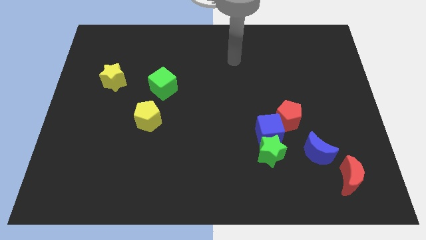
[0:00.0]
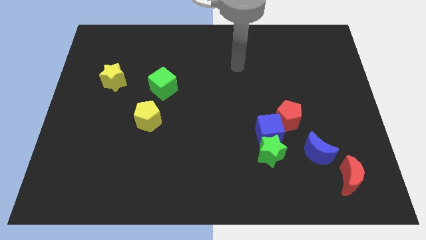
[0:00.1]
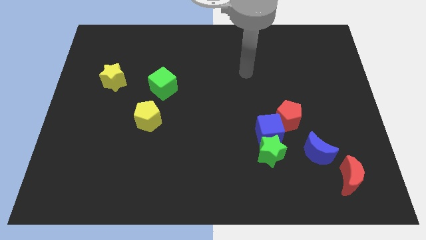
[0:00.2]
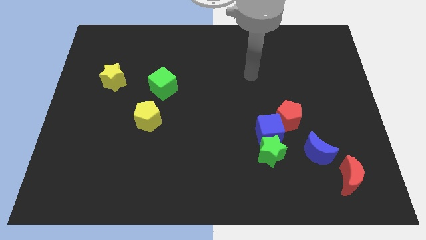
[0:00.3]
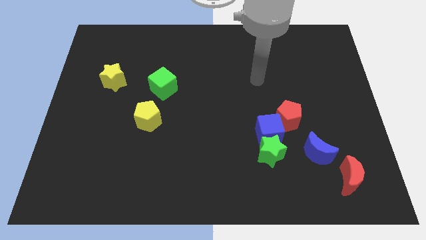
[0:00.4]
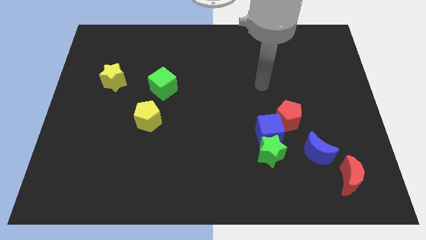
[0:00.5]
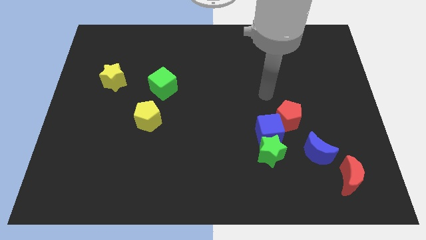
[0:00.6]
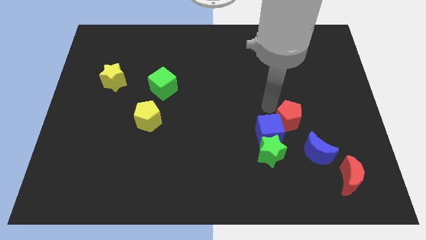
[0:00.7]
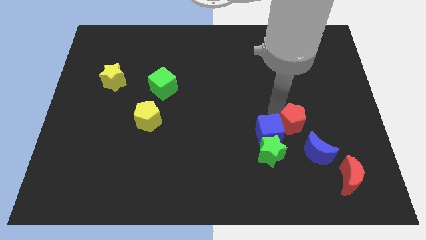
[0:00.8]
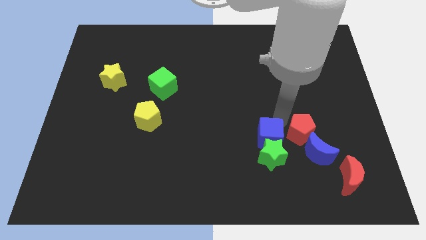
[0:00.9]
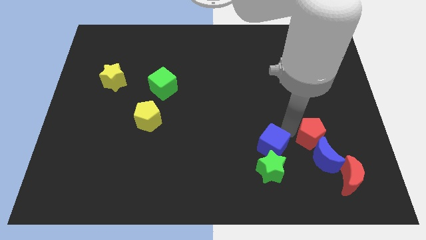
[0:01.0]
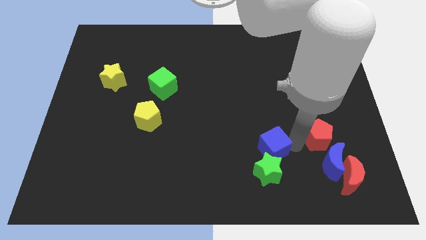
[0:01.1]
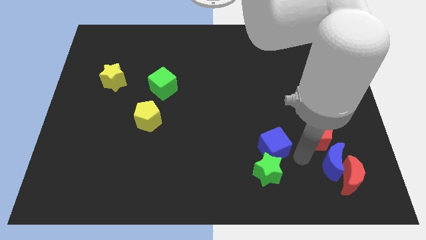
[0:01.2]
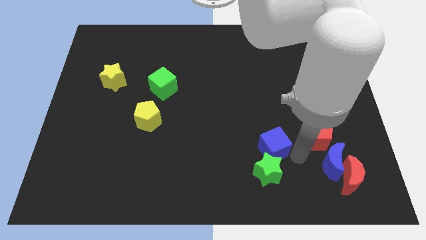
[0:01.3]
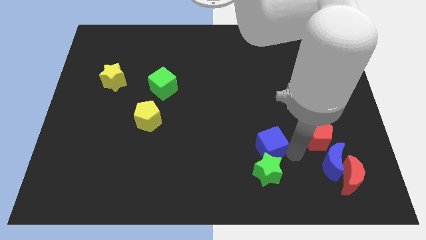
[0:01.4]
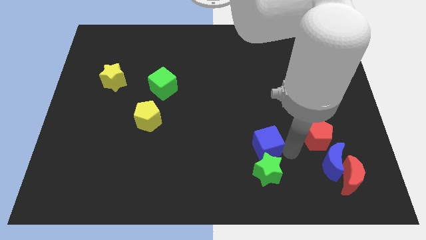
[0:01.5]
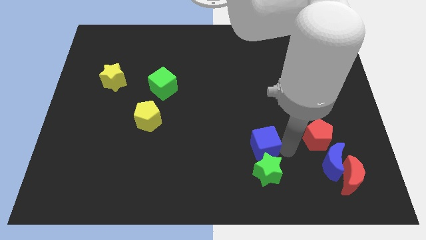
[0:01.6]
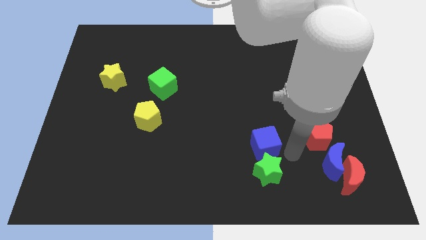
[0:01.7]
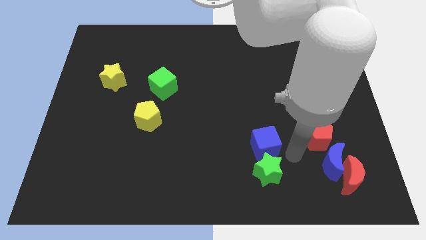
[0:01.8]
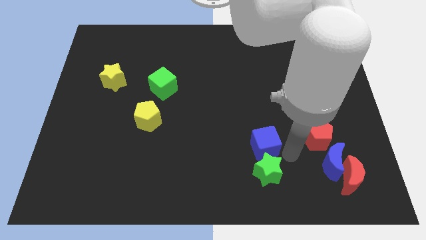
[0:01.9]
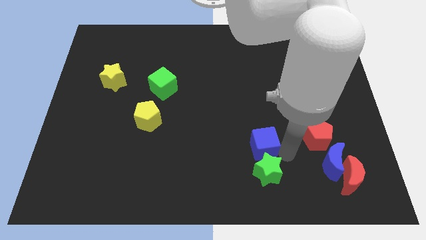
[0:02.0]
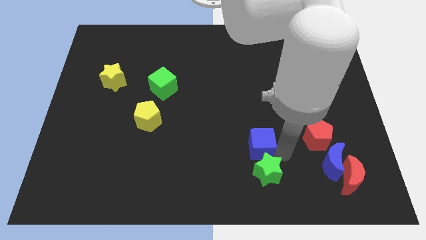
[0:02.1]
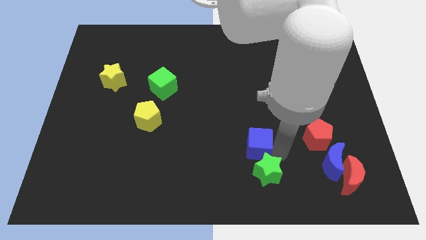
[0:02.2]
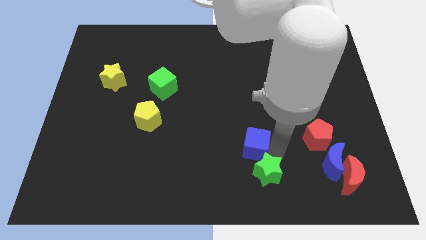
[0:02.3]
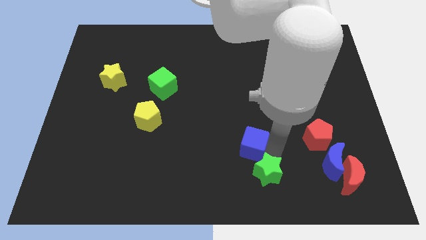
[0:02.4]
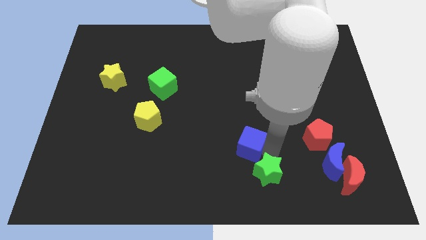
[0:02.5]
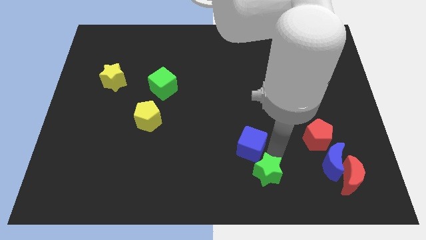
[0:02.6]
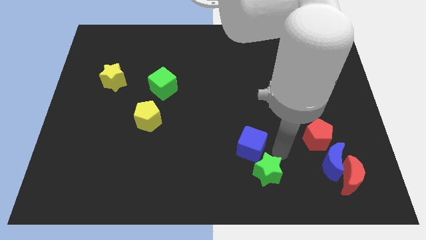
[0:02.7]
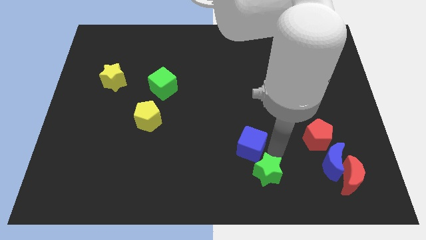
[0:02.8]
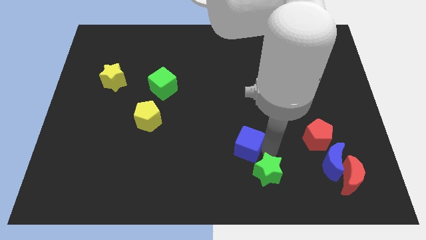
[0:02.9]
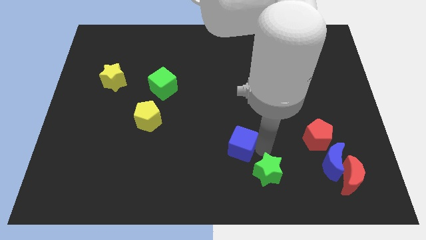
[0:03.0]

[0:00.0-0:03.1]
move the blue cube away from the green star and red pentagon

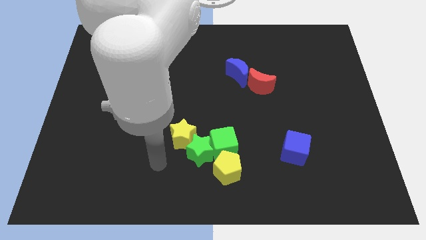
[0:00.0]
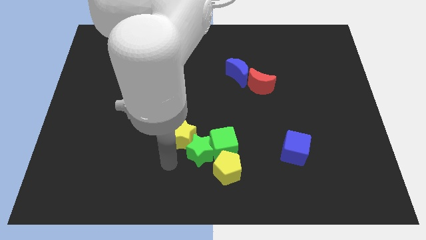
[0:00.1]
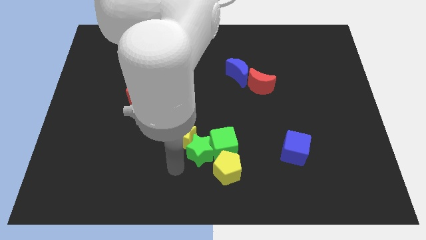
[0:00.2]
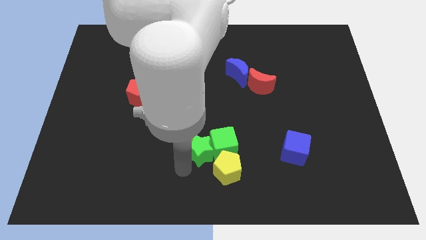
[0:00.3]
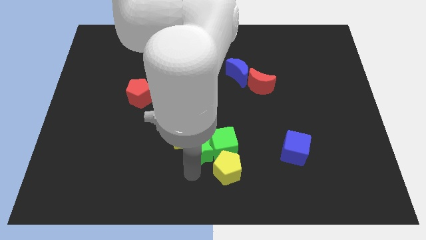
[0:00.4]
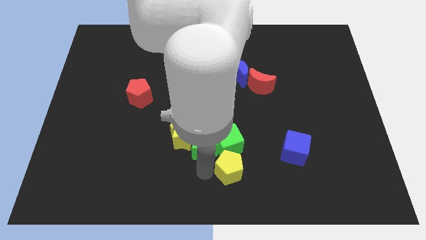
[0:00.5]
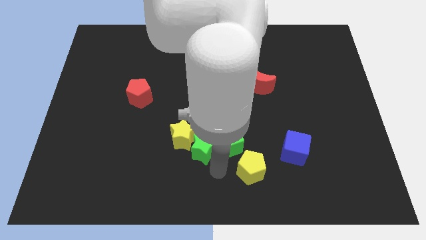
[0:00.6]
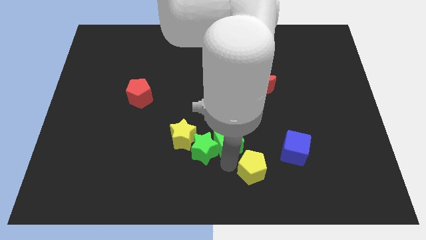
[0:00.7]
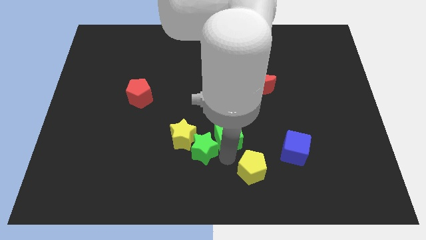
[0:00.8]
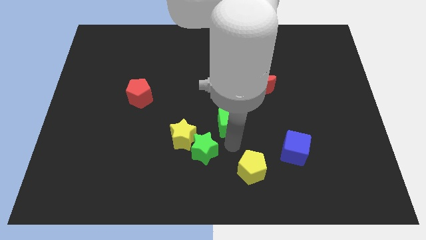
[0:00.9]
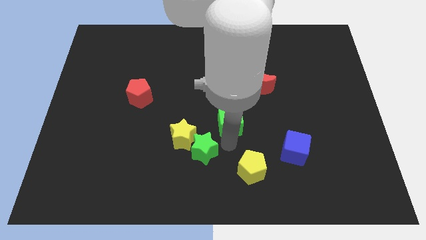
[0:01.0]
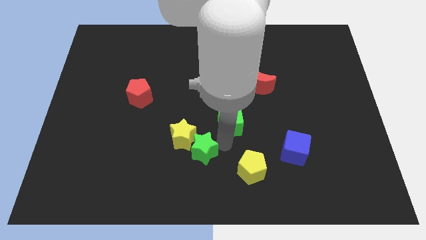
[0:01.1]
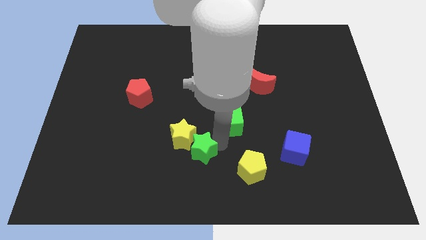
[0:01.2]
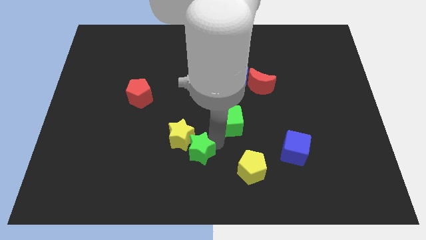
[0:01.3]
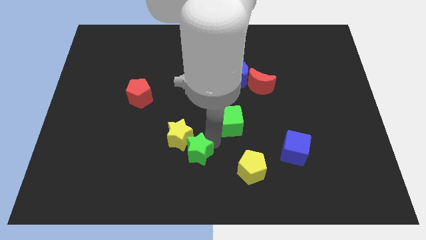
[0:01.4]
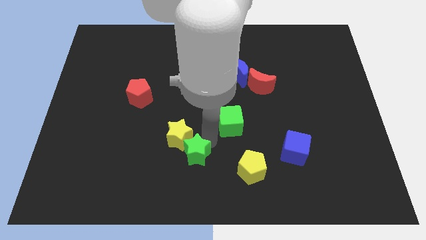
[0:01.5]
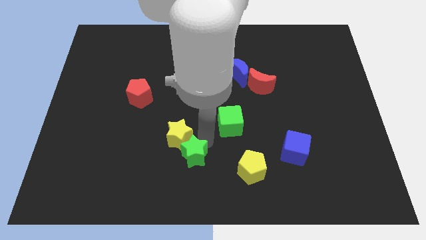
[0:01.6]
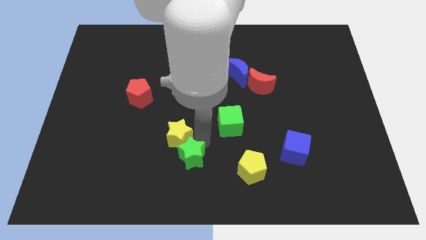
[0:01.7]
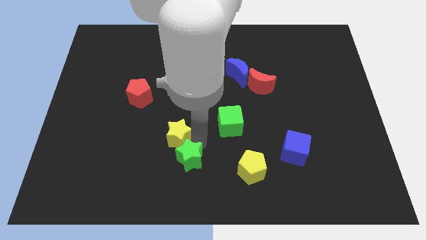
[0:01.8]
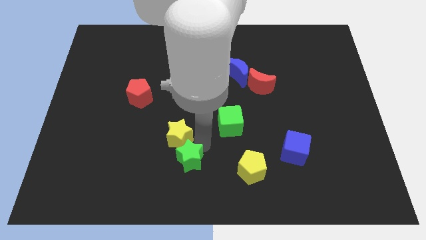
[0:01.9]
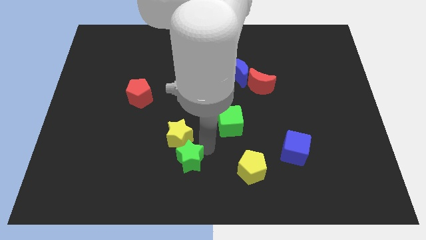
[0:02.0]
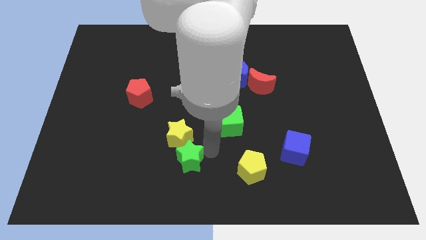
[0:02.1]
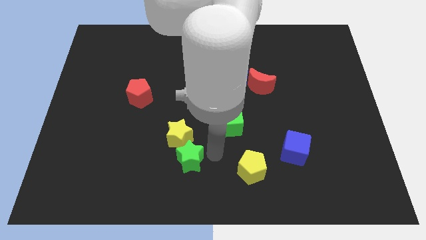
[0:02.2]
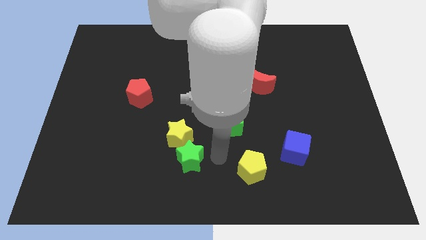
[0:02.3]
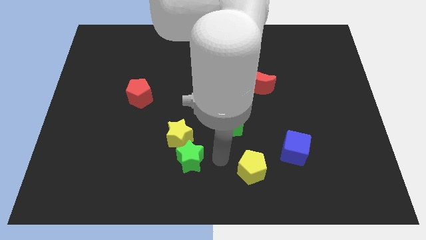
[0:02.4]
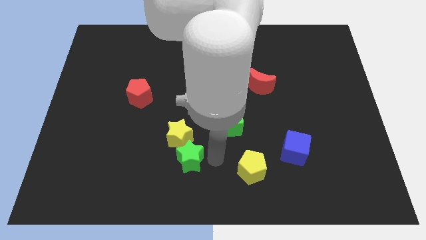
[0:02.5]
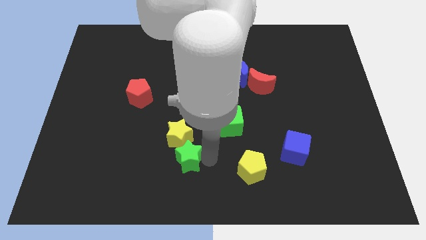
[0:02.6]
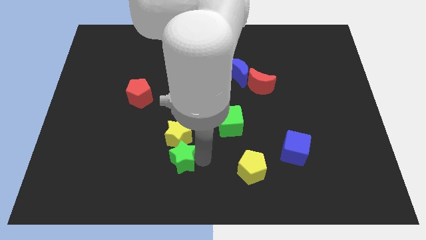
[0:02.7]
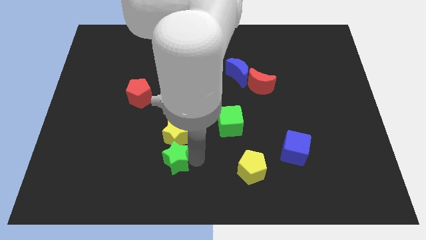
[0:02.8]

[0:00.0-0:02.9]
pull the green star apart from the green cube, yellow star, and yellow pentagon

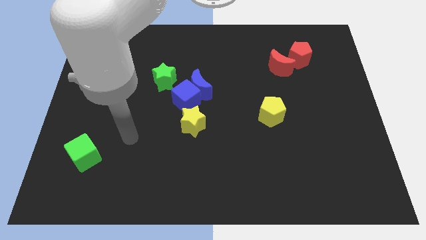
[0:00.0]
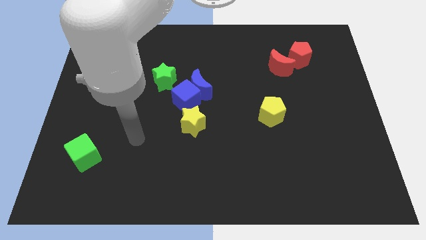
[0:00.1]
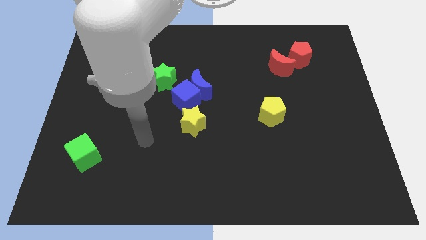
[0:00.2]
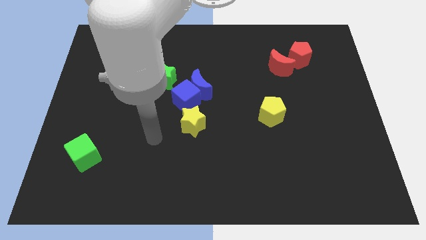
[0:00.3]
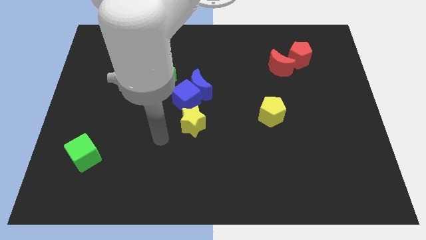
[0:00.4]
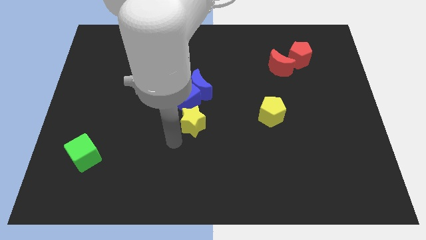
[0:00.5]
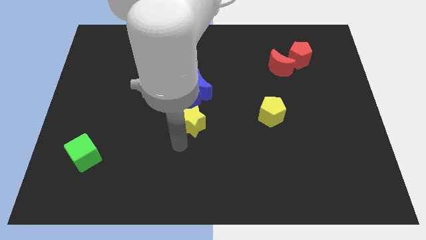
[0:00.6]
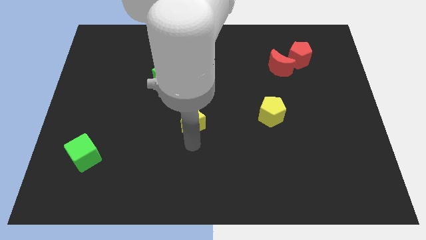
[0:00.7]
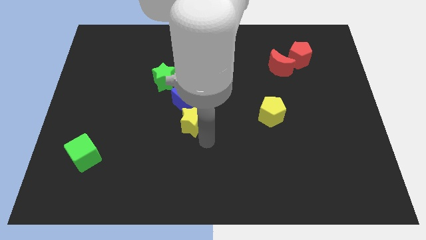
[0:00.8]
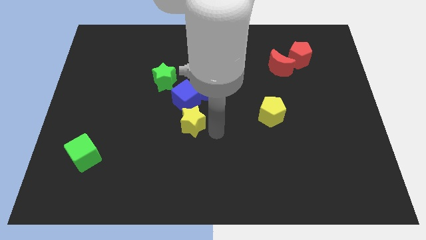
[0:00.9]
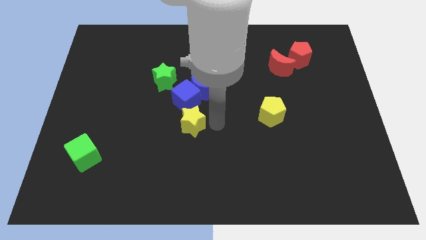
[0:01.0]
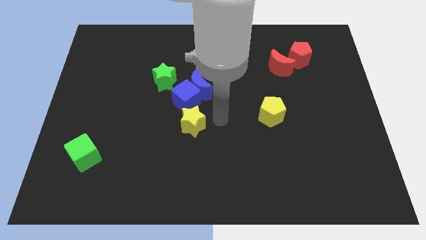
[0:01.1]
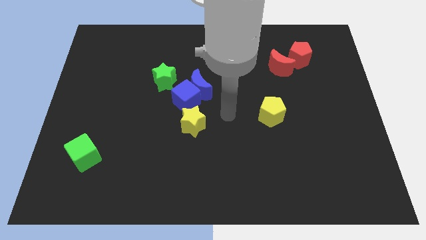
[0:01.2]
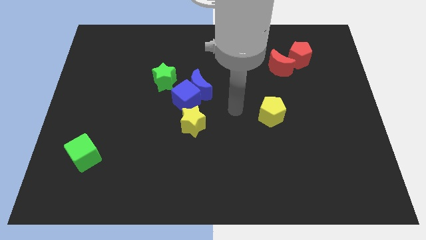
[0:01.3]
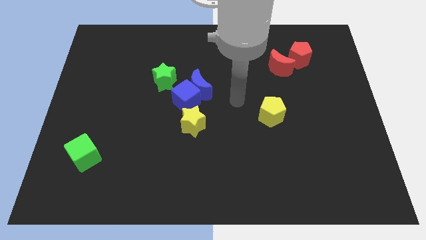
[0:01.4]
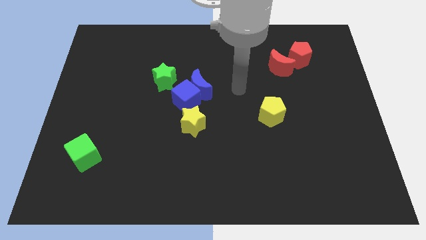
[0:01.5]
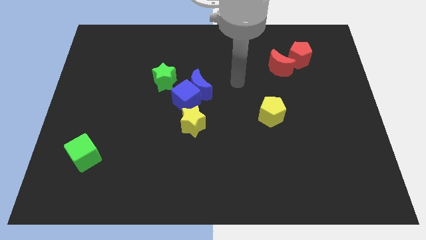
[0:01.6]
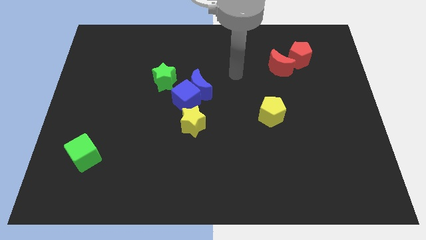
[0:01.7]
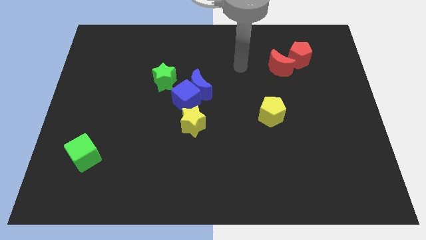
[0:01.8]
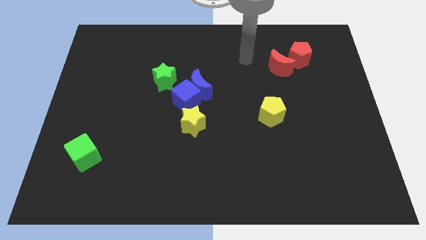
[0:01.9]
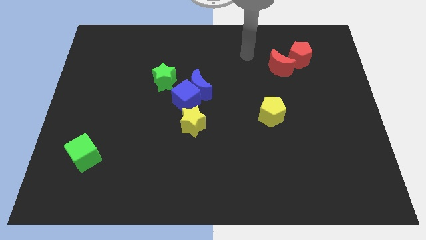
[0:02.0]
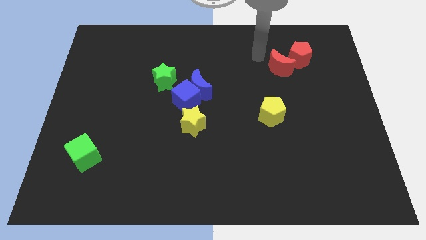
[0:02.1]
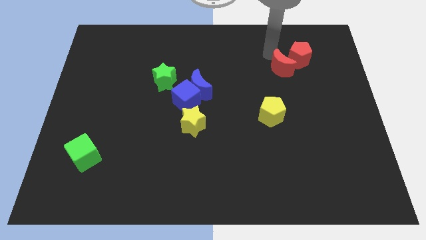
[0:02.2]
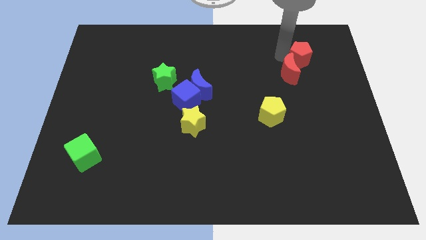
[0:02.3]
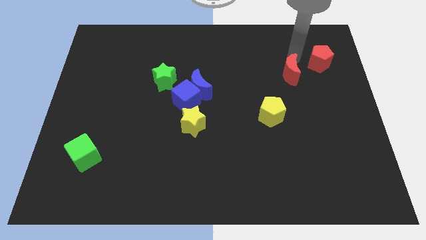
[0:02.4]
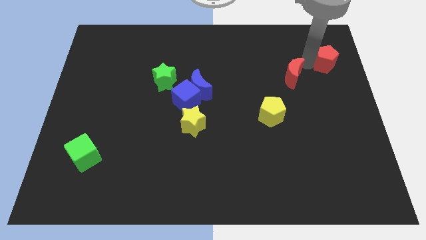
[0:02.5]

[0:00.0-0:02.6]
pull the red moon apart from the red pentagon

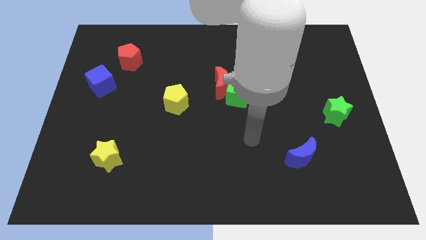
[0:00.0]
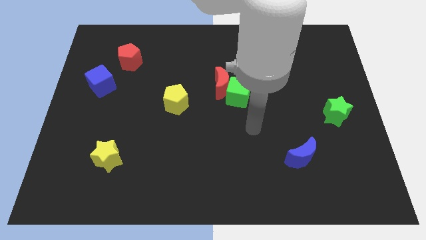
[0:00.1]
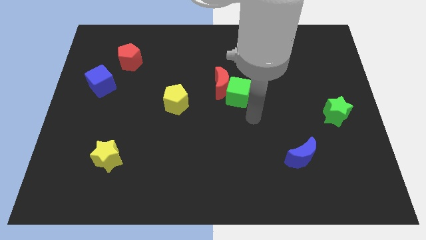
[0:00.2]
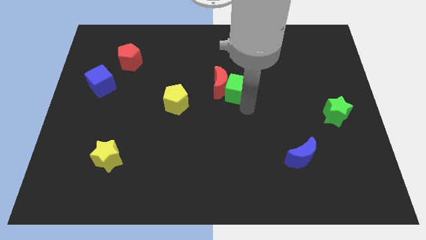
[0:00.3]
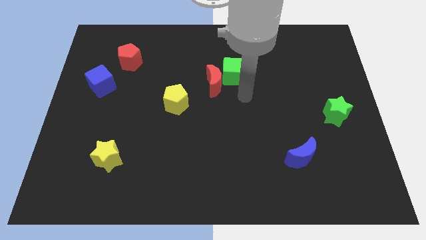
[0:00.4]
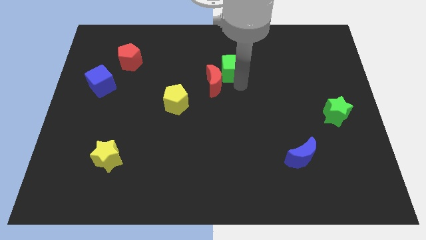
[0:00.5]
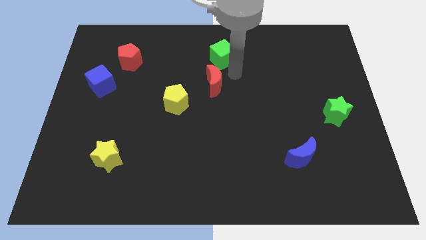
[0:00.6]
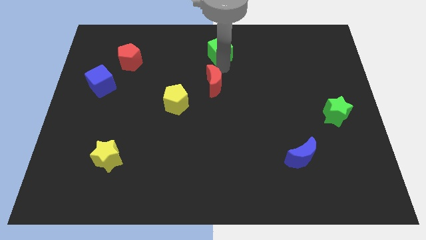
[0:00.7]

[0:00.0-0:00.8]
separate the red moon from the green cube
